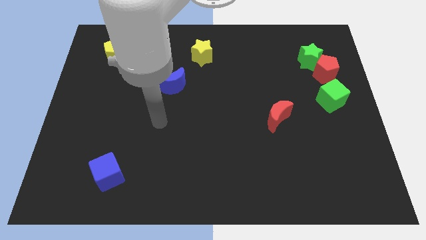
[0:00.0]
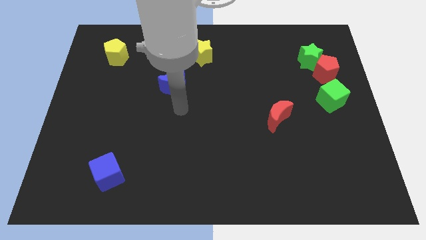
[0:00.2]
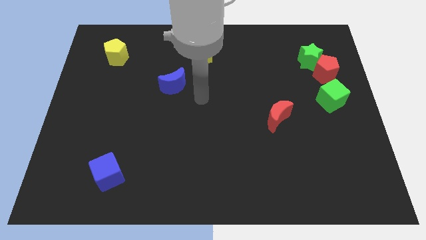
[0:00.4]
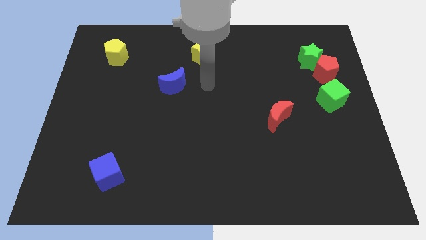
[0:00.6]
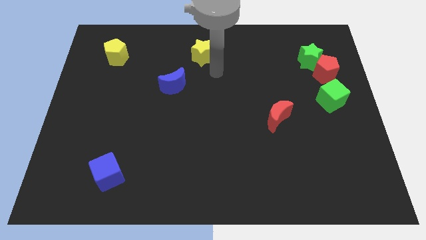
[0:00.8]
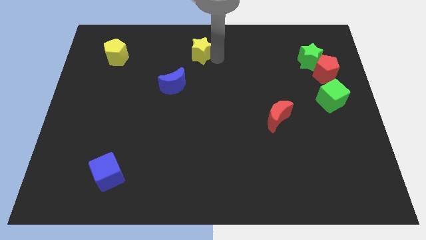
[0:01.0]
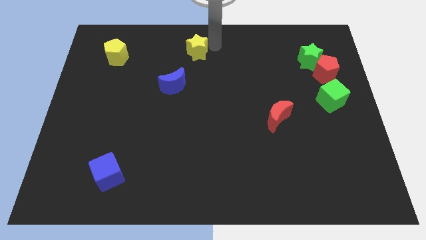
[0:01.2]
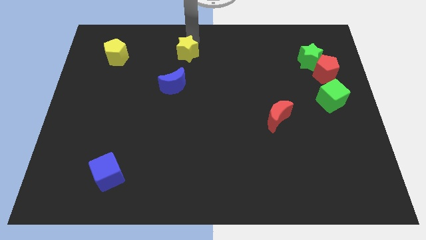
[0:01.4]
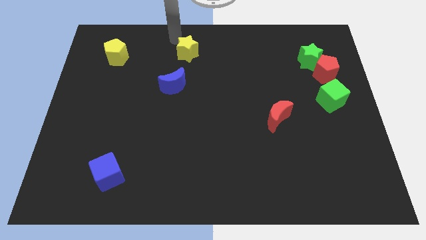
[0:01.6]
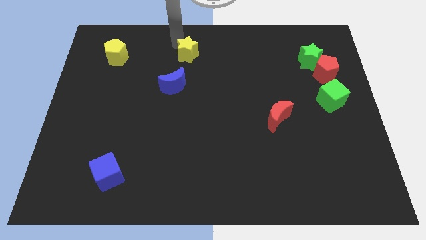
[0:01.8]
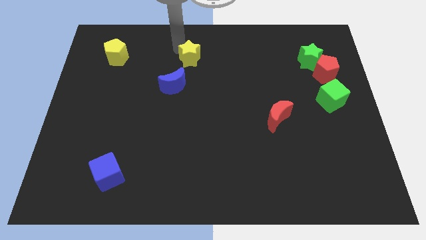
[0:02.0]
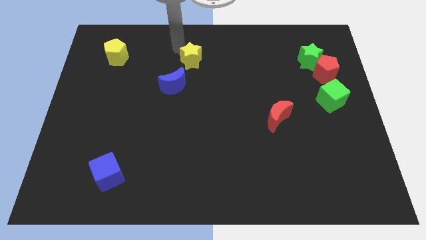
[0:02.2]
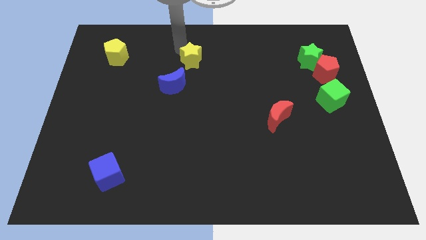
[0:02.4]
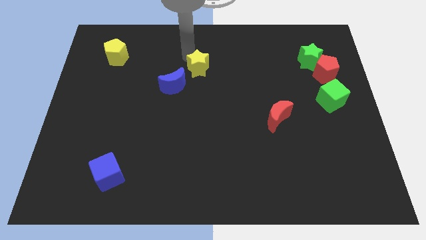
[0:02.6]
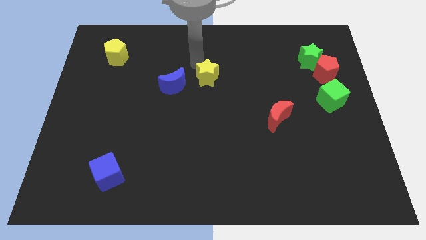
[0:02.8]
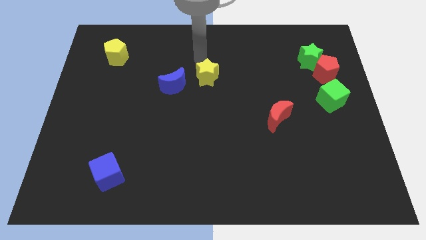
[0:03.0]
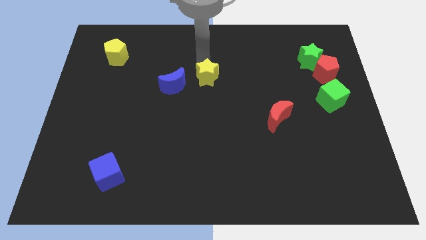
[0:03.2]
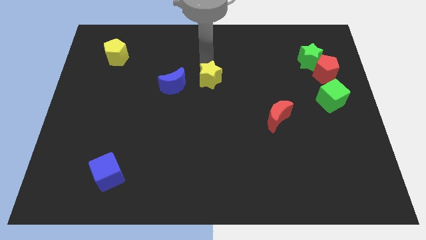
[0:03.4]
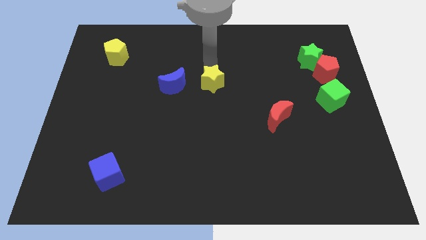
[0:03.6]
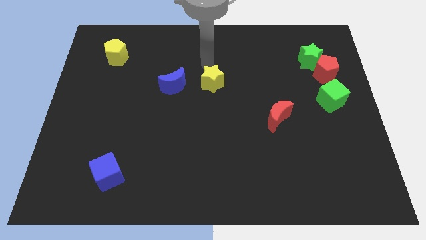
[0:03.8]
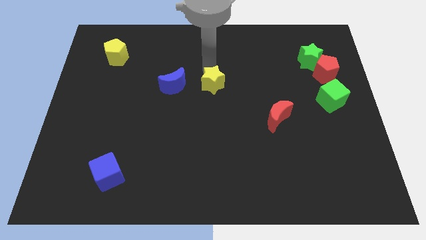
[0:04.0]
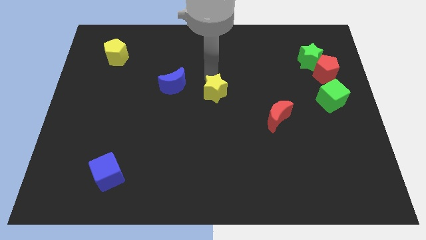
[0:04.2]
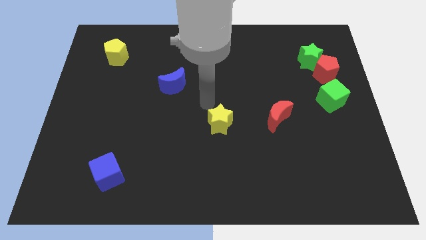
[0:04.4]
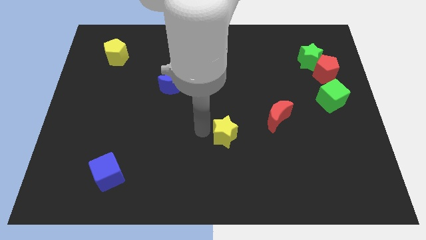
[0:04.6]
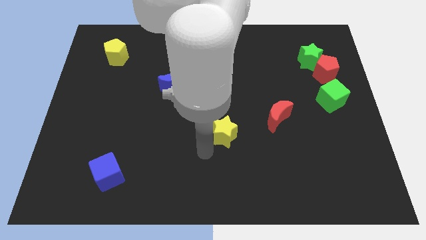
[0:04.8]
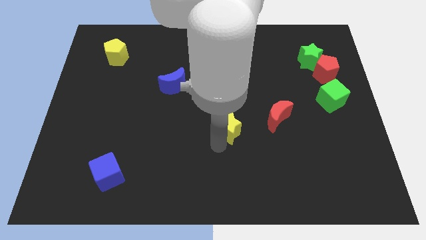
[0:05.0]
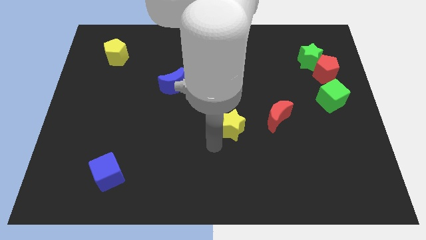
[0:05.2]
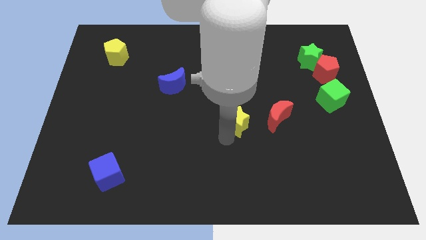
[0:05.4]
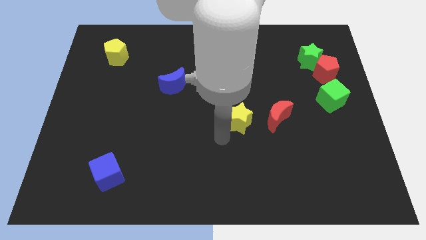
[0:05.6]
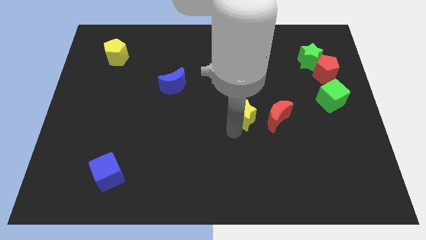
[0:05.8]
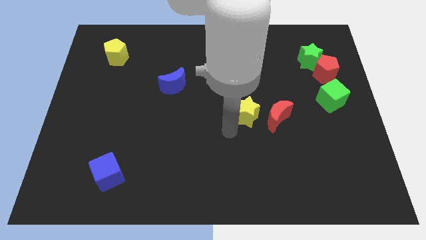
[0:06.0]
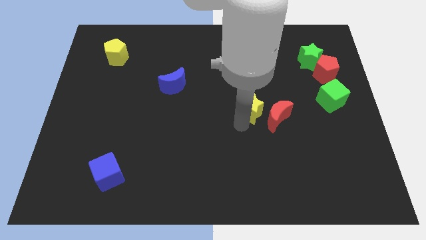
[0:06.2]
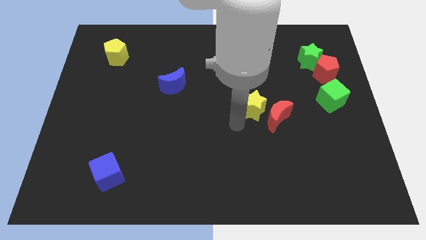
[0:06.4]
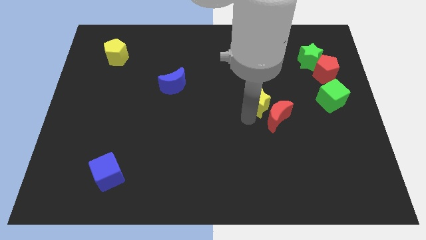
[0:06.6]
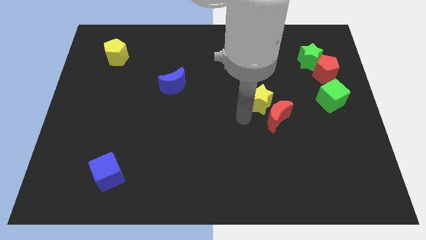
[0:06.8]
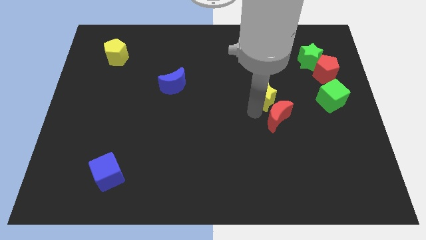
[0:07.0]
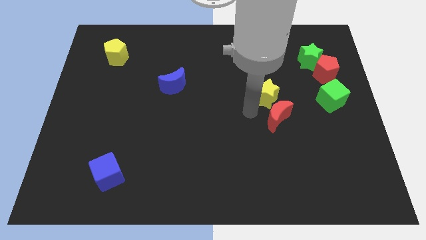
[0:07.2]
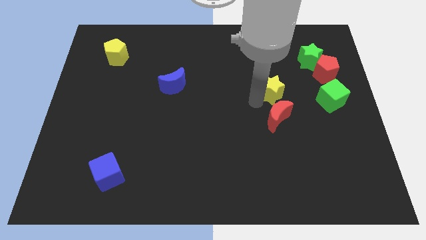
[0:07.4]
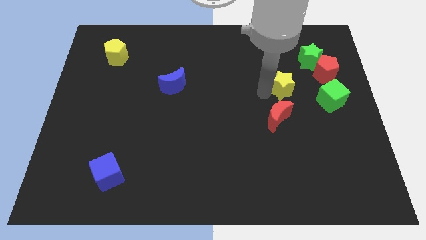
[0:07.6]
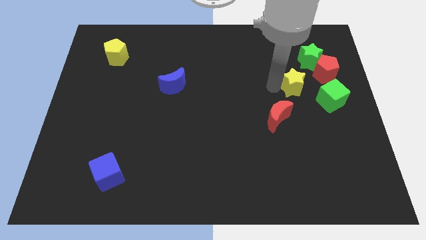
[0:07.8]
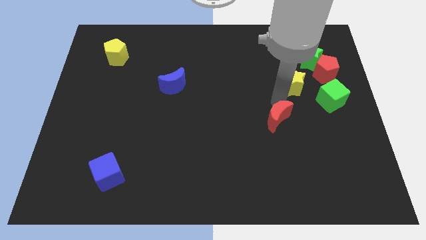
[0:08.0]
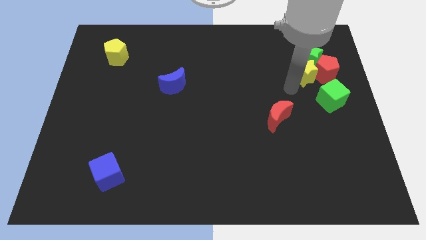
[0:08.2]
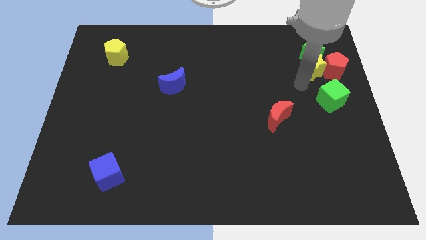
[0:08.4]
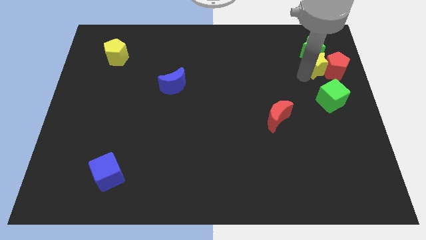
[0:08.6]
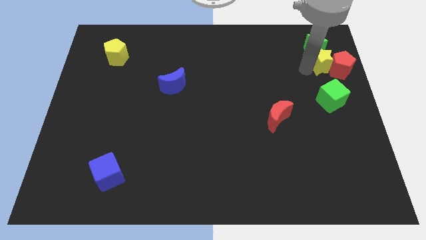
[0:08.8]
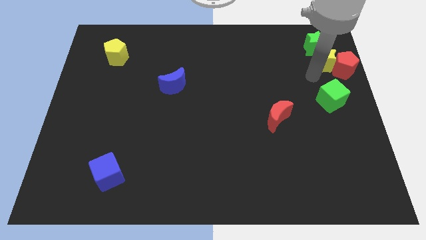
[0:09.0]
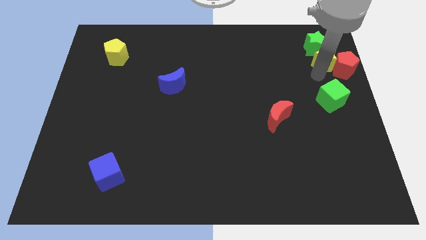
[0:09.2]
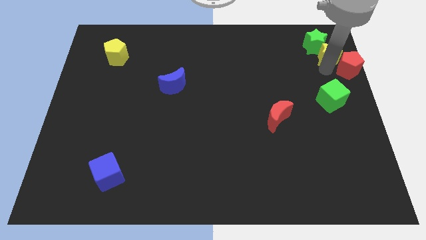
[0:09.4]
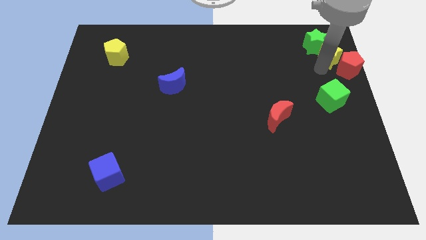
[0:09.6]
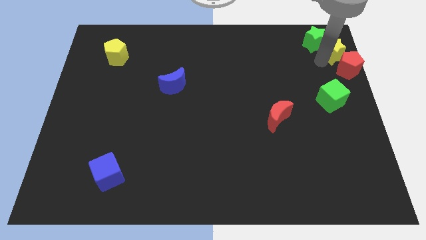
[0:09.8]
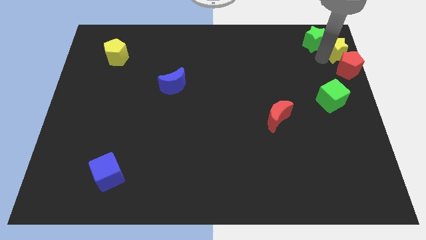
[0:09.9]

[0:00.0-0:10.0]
slide the yellow star to the top right corner

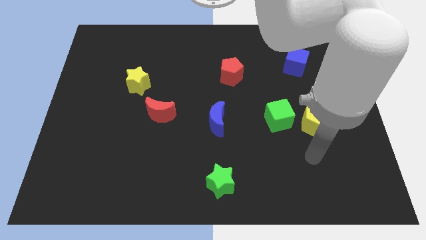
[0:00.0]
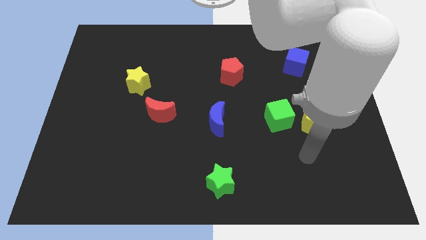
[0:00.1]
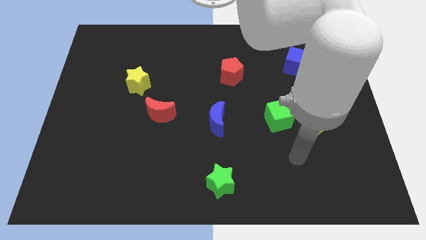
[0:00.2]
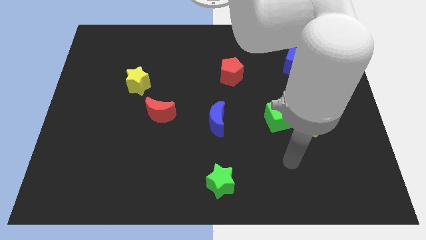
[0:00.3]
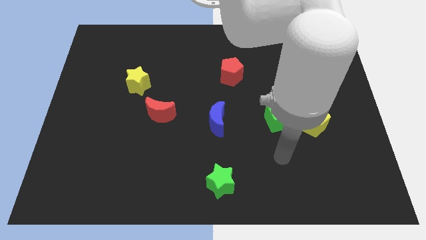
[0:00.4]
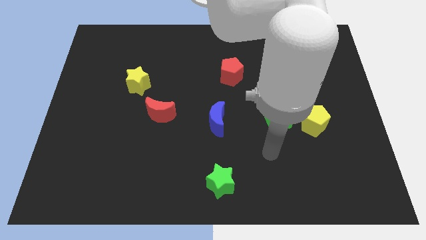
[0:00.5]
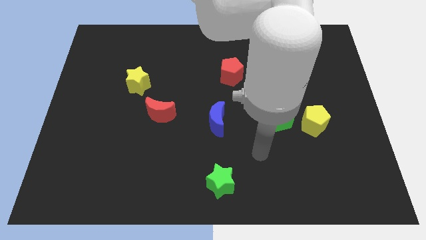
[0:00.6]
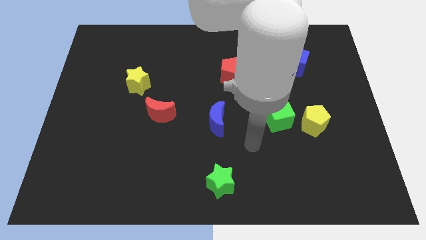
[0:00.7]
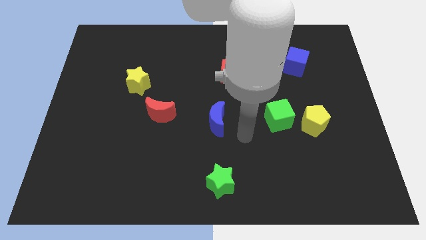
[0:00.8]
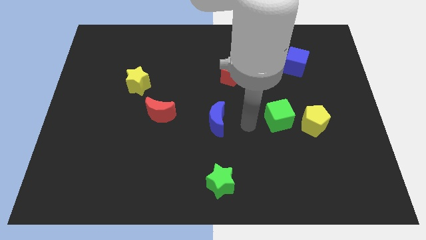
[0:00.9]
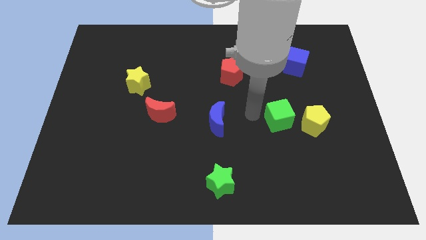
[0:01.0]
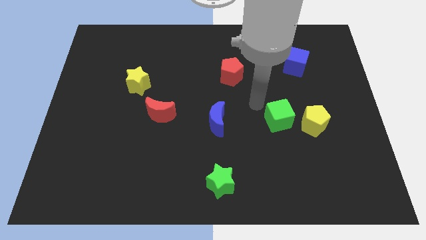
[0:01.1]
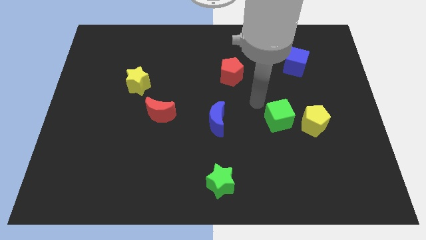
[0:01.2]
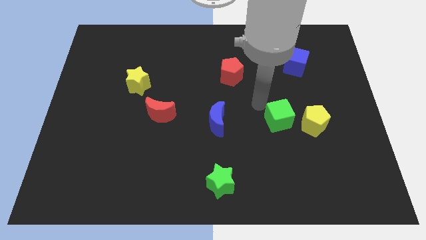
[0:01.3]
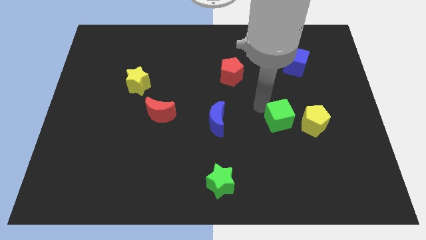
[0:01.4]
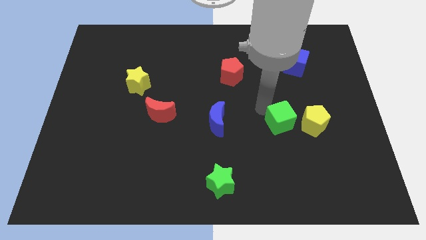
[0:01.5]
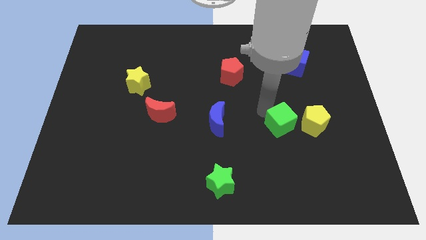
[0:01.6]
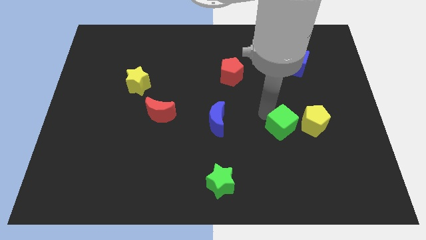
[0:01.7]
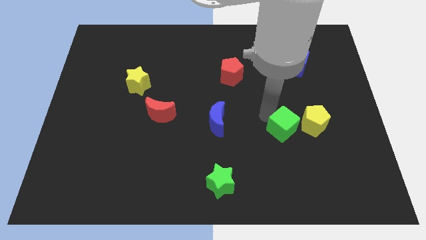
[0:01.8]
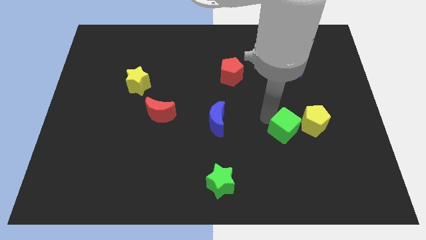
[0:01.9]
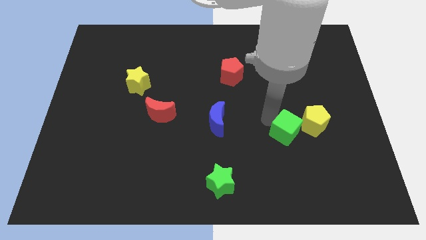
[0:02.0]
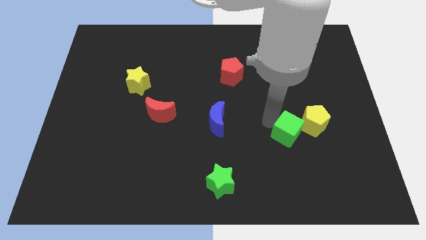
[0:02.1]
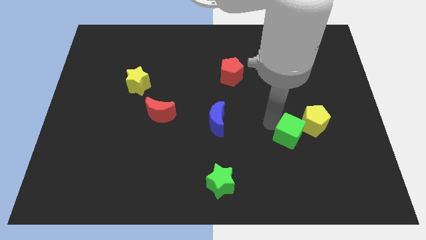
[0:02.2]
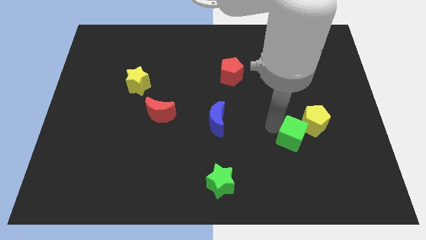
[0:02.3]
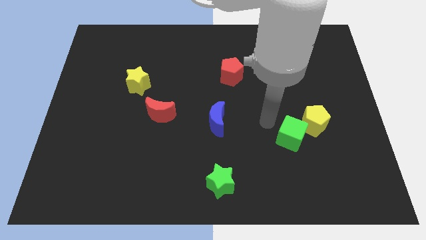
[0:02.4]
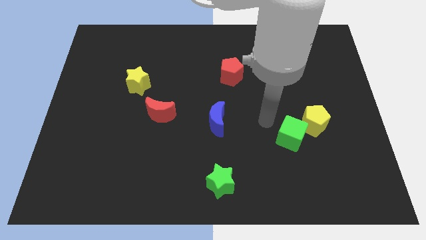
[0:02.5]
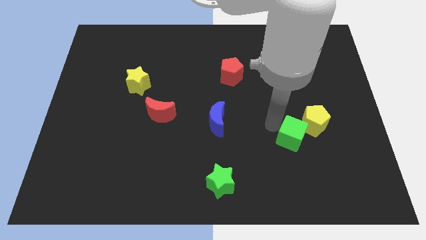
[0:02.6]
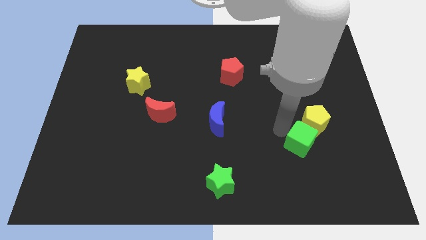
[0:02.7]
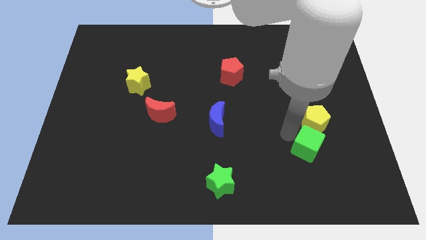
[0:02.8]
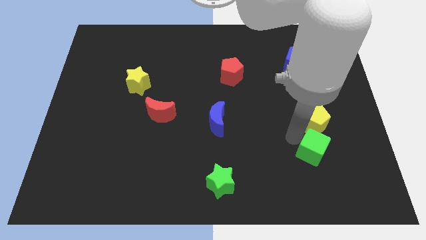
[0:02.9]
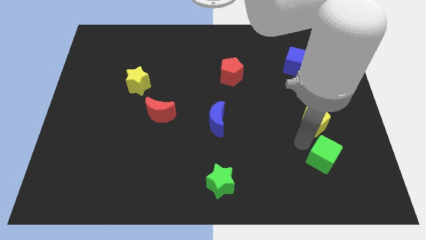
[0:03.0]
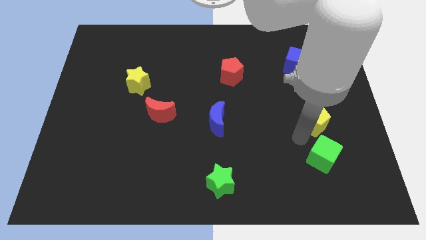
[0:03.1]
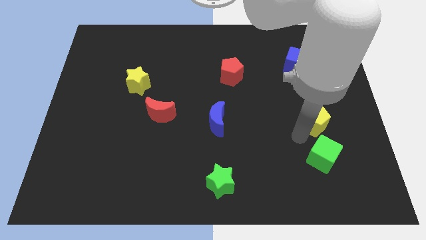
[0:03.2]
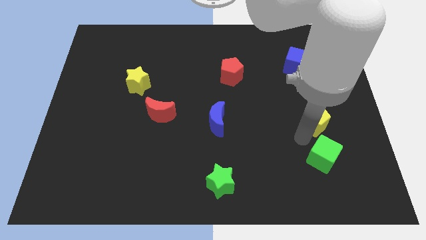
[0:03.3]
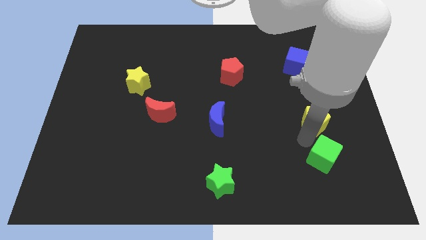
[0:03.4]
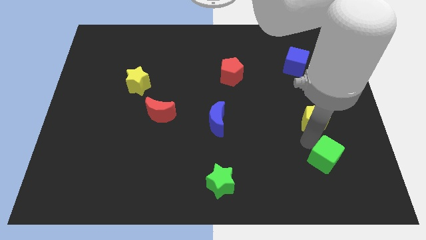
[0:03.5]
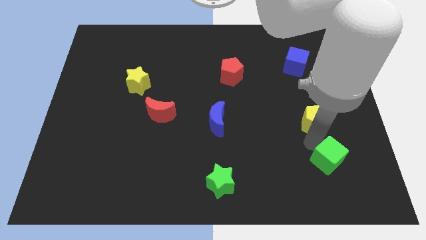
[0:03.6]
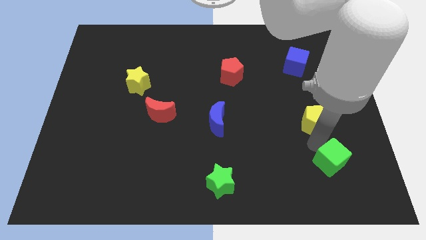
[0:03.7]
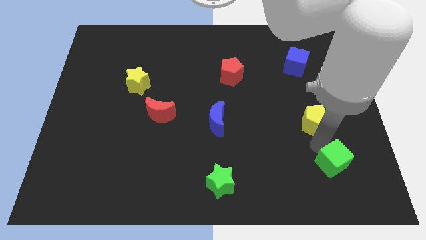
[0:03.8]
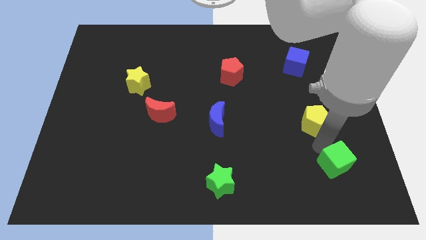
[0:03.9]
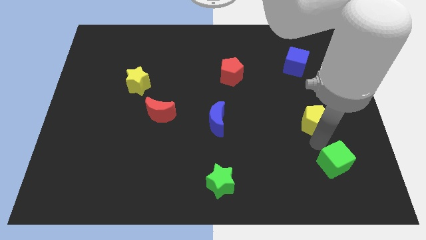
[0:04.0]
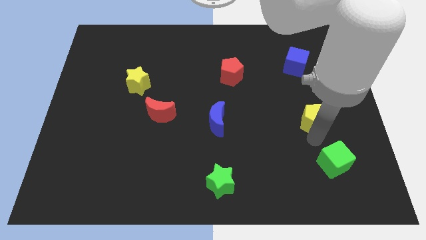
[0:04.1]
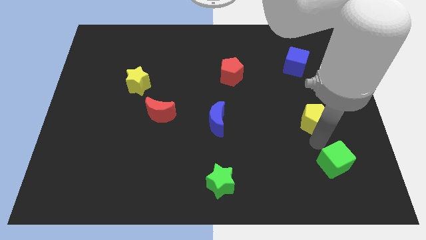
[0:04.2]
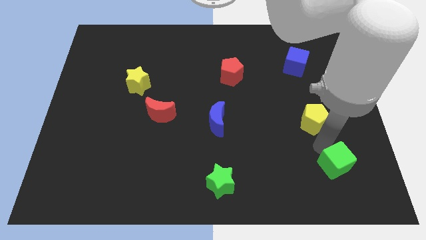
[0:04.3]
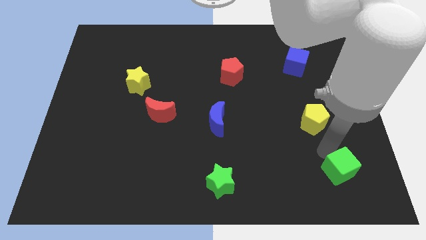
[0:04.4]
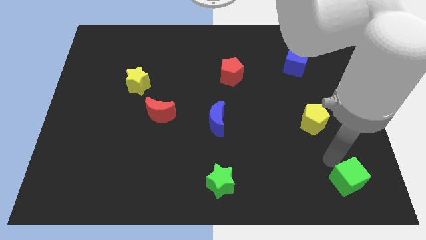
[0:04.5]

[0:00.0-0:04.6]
slide the green cube to the bottom right corner
